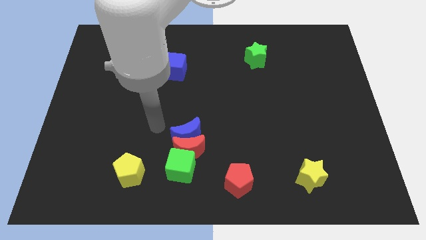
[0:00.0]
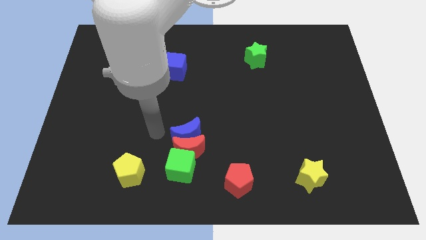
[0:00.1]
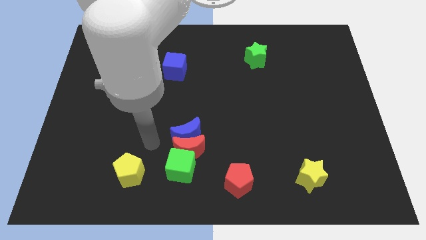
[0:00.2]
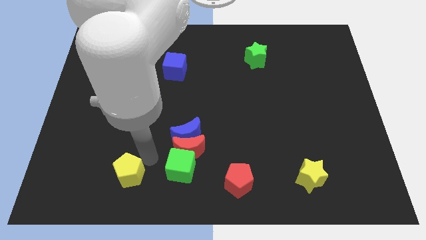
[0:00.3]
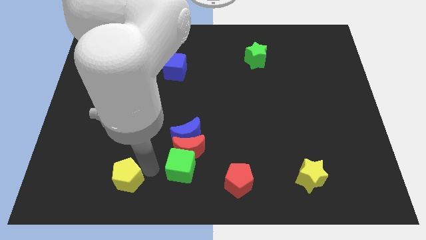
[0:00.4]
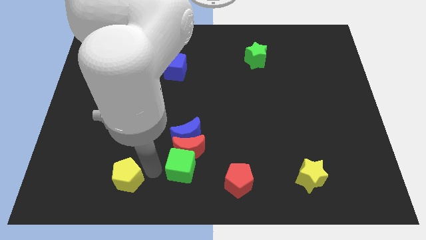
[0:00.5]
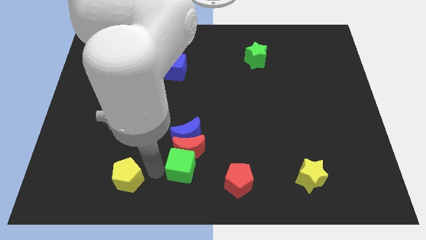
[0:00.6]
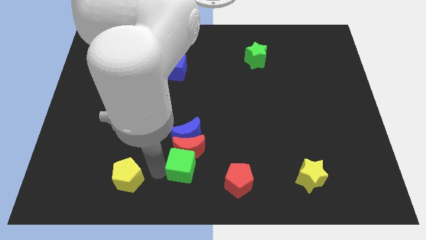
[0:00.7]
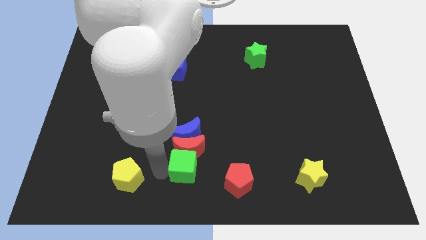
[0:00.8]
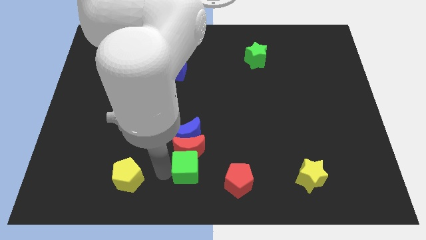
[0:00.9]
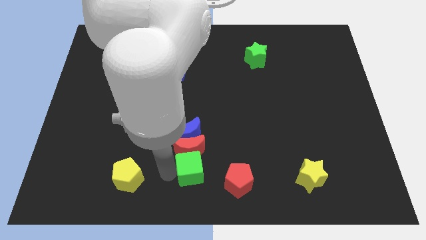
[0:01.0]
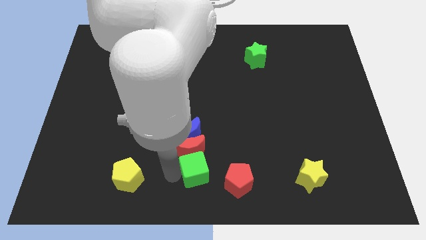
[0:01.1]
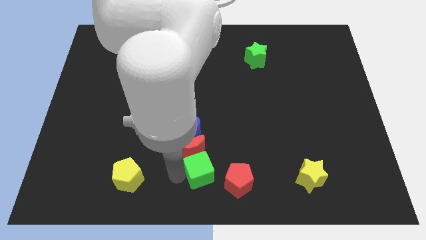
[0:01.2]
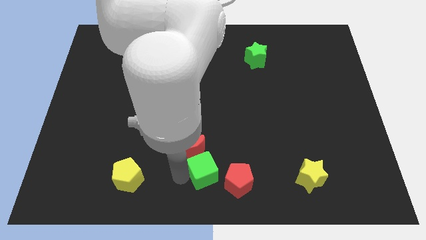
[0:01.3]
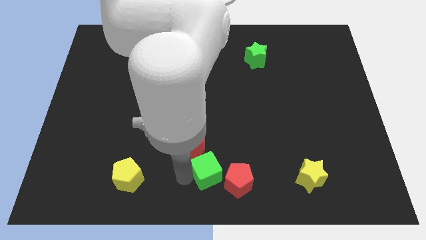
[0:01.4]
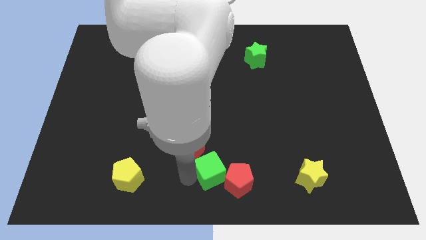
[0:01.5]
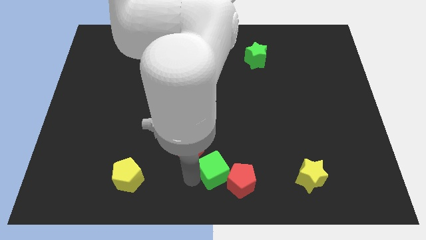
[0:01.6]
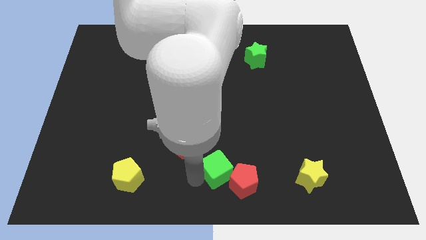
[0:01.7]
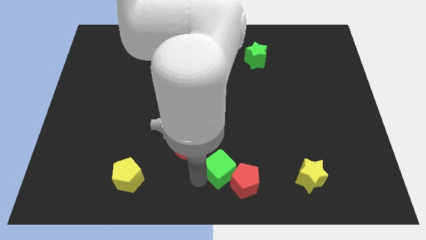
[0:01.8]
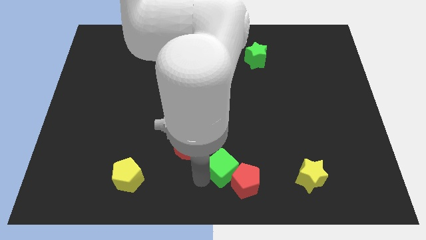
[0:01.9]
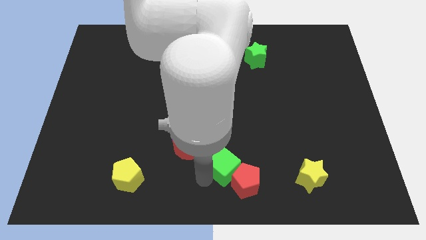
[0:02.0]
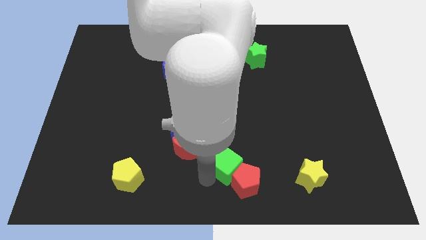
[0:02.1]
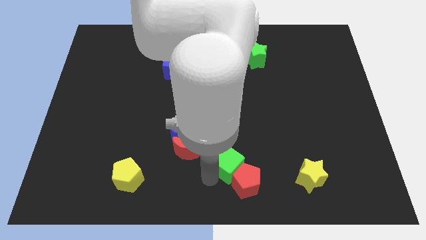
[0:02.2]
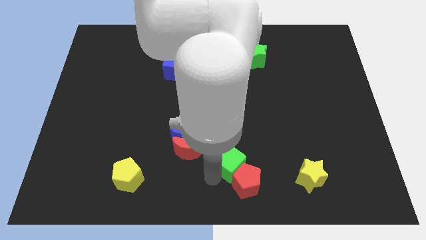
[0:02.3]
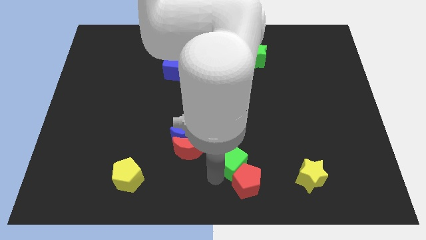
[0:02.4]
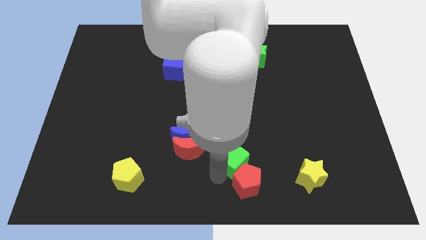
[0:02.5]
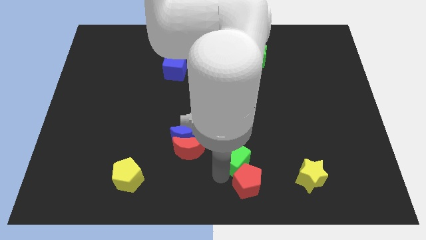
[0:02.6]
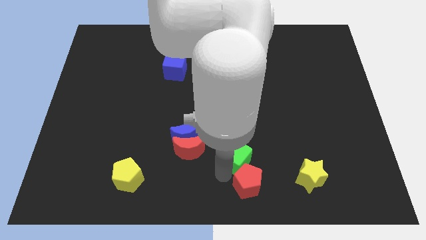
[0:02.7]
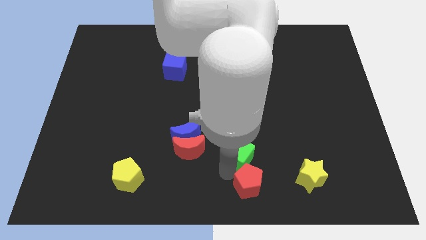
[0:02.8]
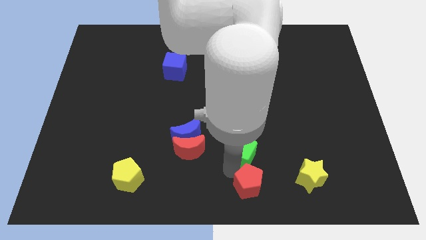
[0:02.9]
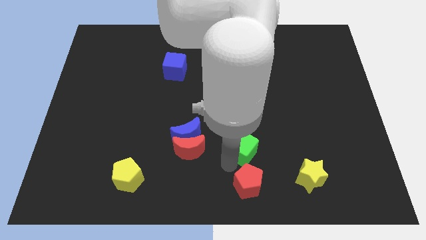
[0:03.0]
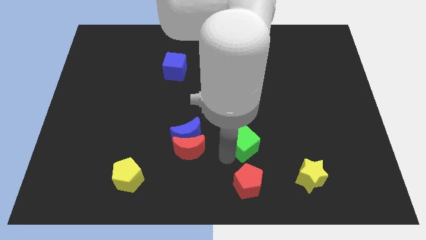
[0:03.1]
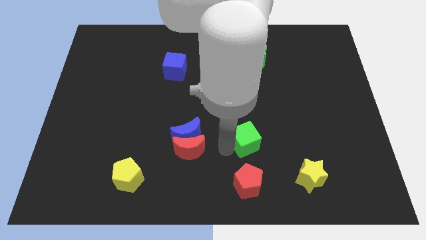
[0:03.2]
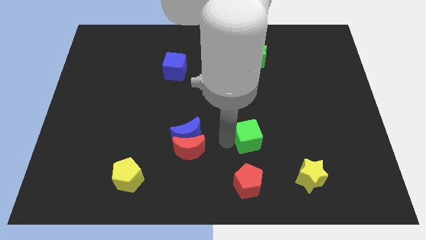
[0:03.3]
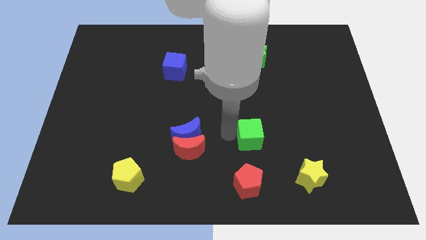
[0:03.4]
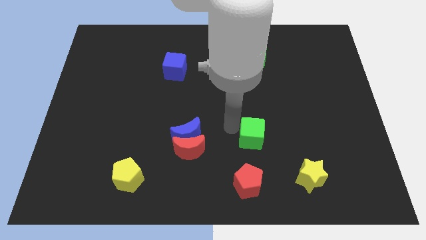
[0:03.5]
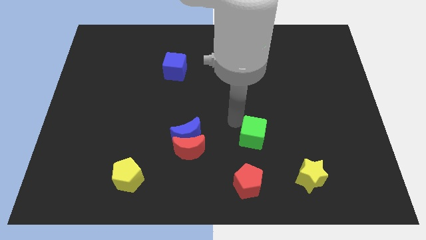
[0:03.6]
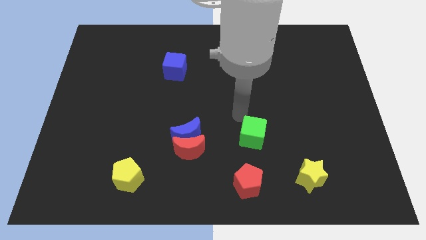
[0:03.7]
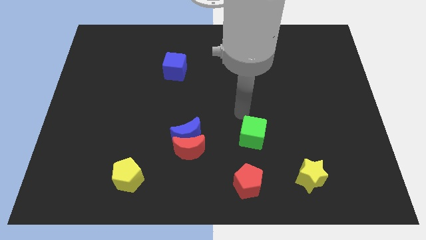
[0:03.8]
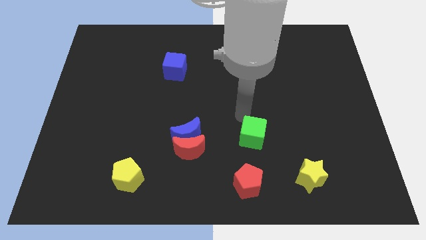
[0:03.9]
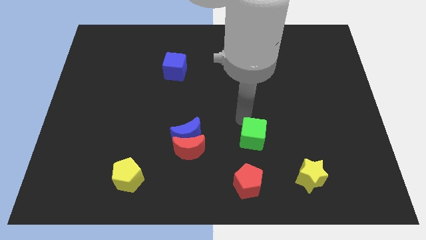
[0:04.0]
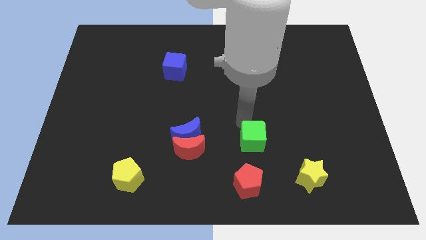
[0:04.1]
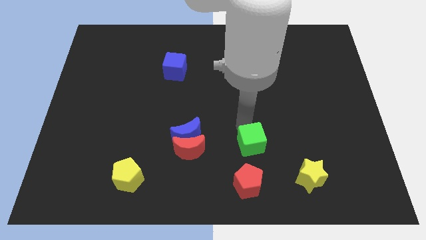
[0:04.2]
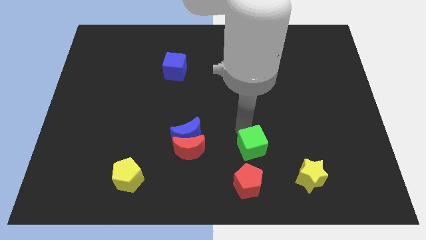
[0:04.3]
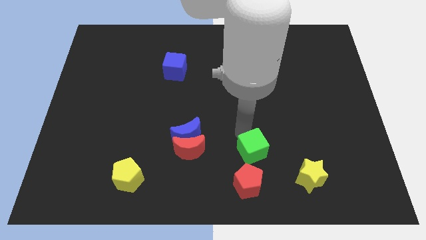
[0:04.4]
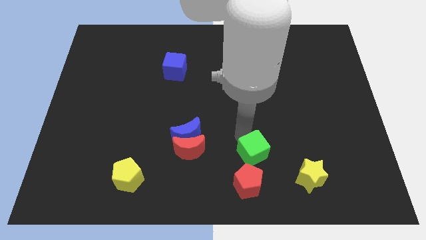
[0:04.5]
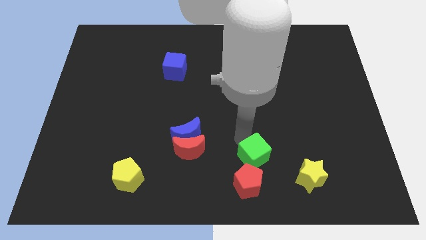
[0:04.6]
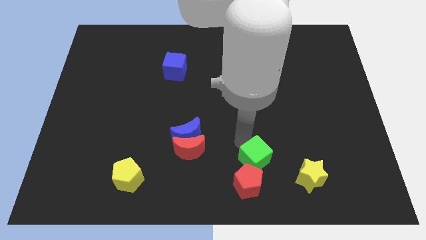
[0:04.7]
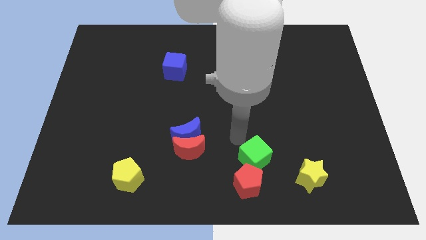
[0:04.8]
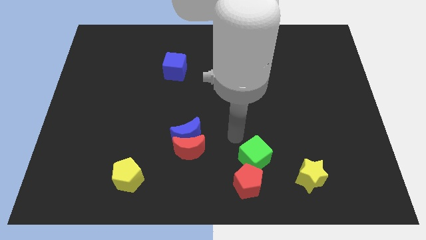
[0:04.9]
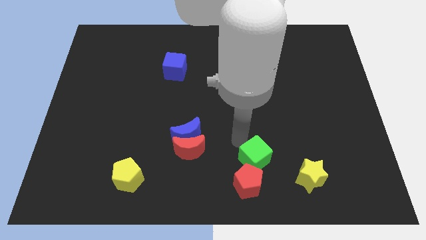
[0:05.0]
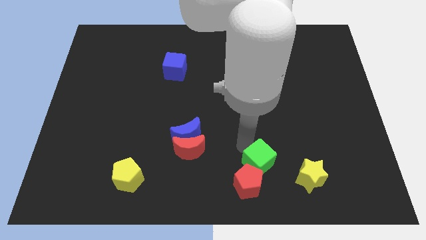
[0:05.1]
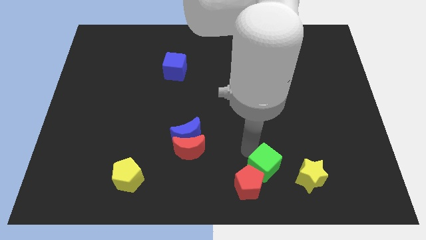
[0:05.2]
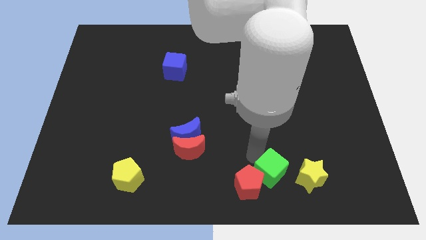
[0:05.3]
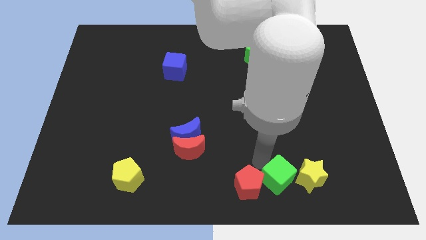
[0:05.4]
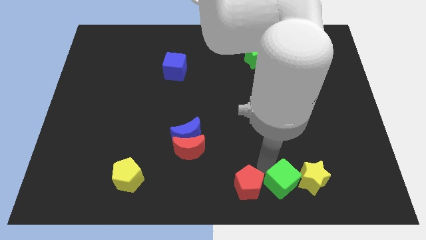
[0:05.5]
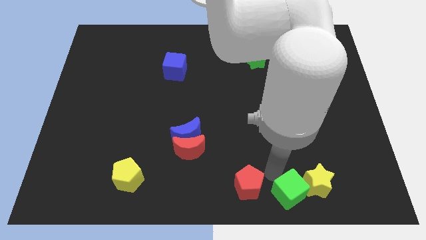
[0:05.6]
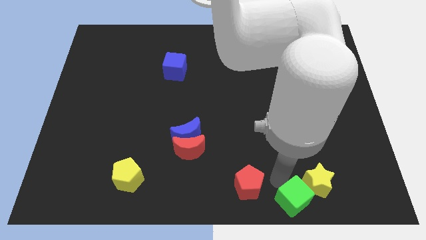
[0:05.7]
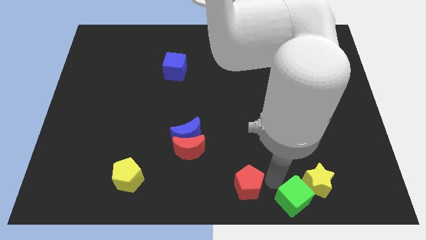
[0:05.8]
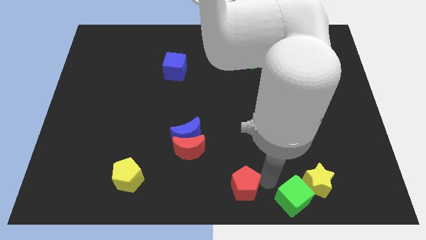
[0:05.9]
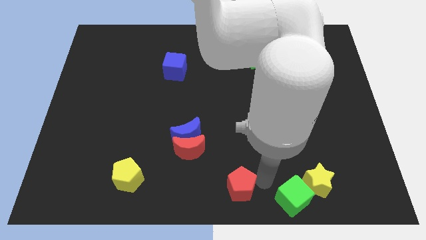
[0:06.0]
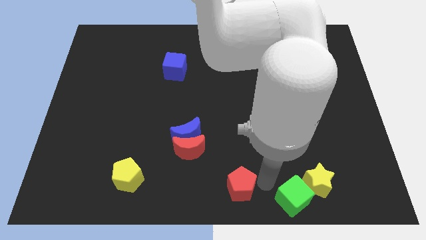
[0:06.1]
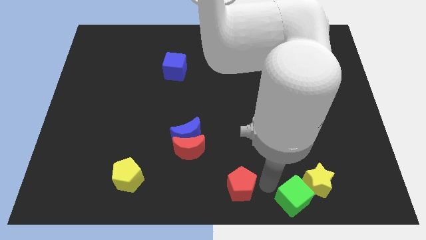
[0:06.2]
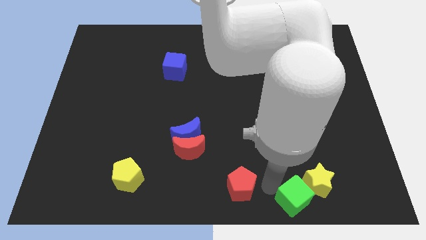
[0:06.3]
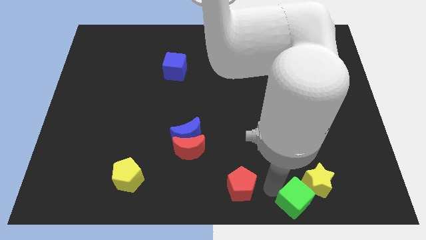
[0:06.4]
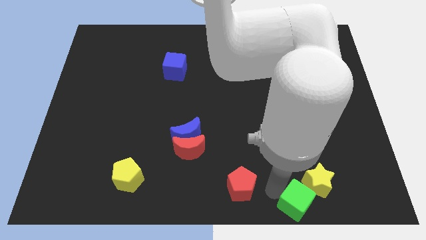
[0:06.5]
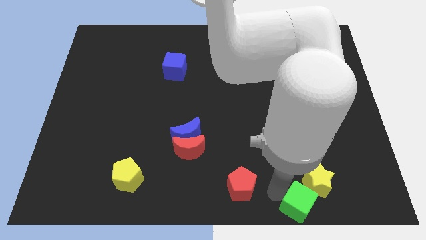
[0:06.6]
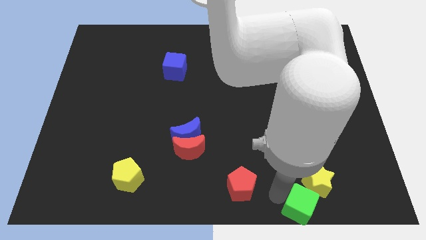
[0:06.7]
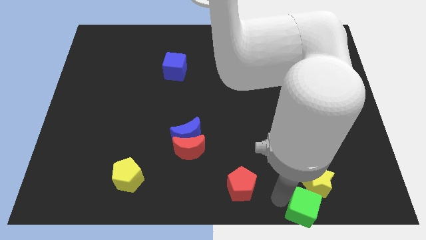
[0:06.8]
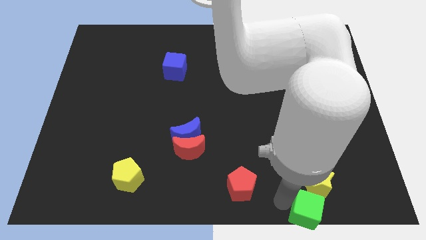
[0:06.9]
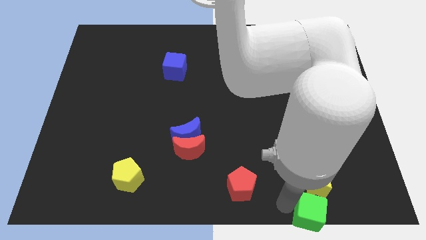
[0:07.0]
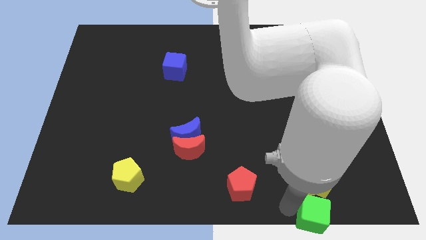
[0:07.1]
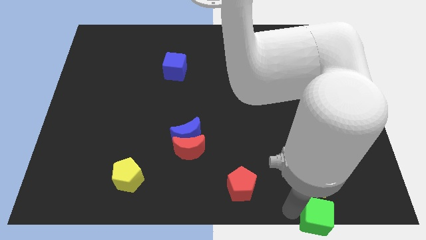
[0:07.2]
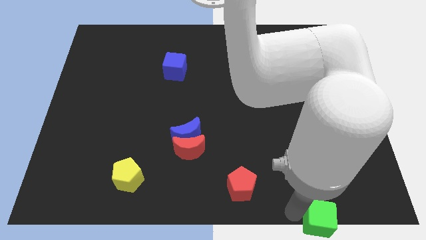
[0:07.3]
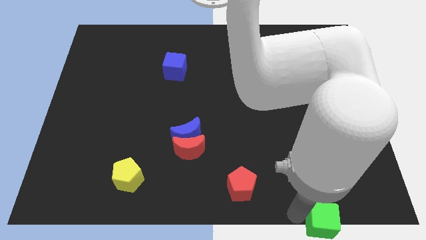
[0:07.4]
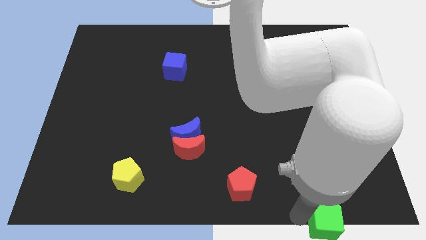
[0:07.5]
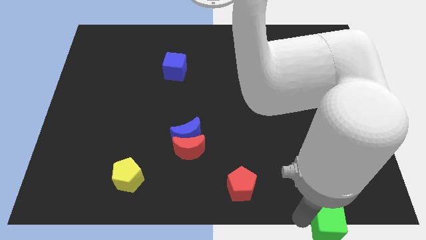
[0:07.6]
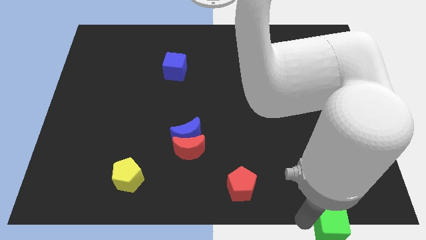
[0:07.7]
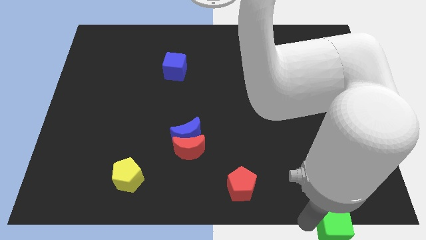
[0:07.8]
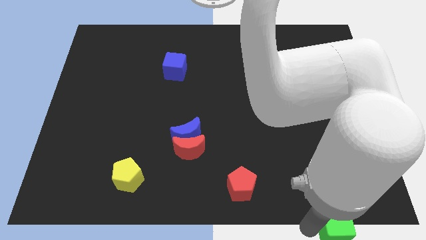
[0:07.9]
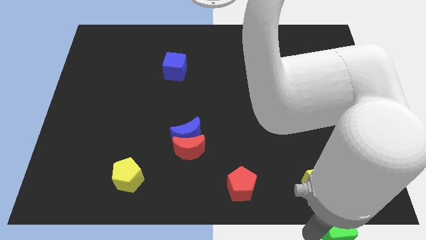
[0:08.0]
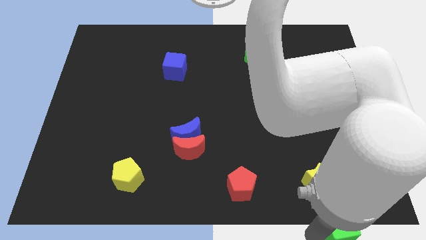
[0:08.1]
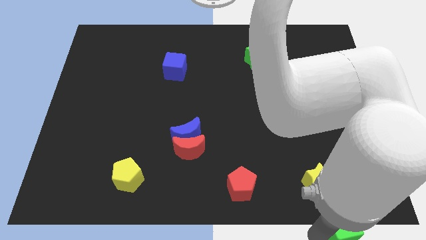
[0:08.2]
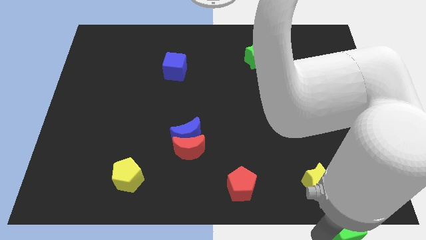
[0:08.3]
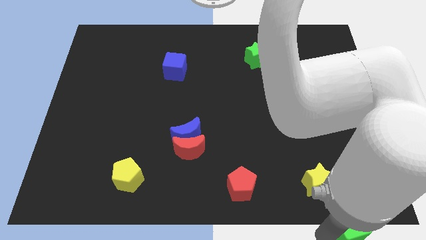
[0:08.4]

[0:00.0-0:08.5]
slide the green cube to the bottom right of the board
